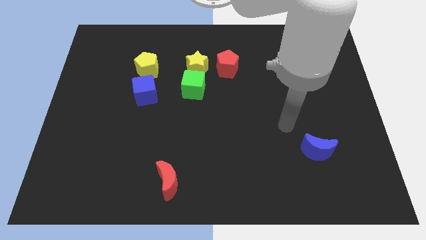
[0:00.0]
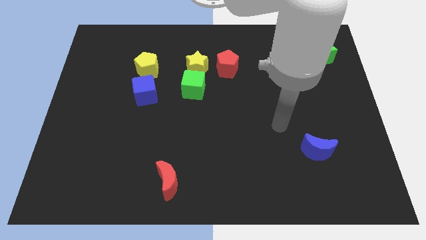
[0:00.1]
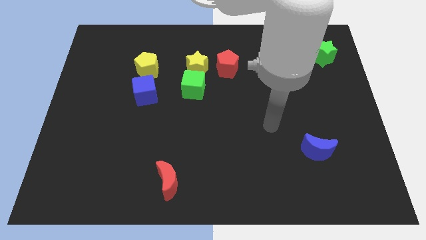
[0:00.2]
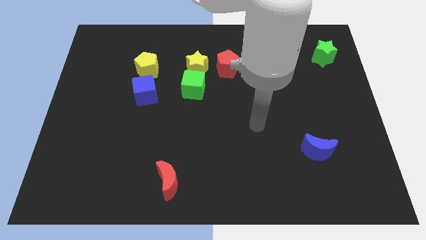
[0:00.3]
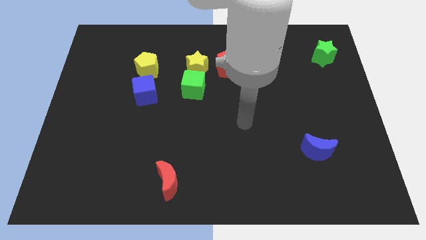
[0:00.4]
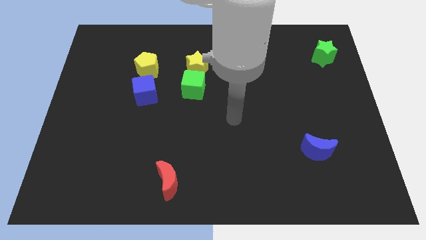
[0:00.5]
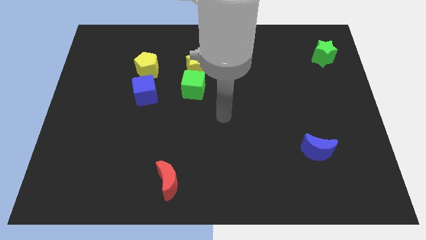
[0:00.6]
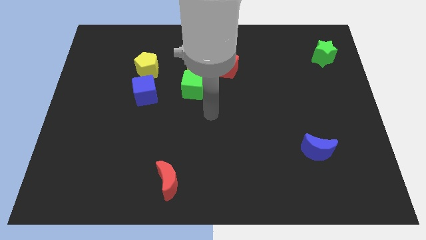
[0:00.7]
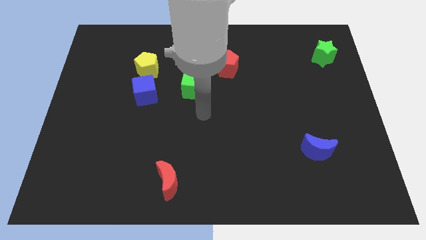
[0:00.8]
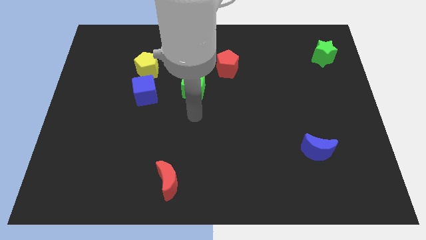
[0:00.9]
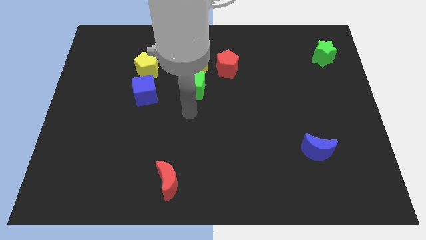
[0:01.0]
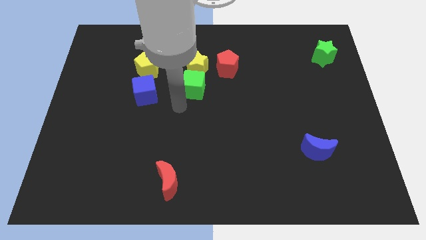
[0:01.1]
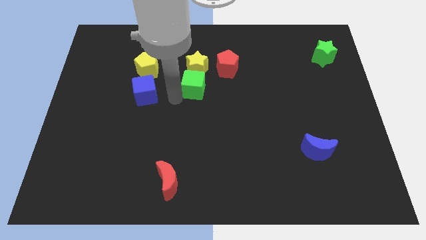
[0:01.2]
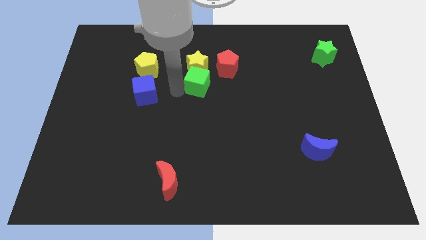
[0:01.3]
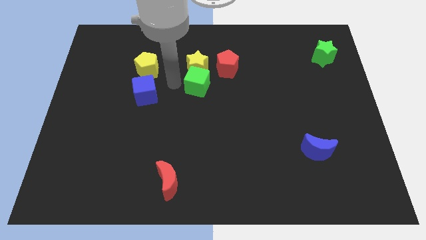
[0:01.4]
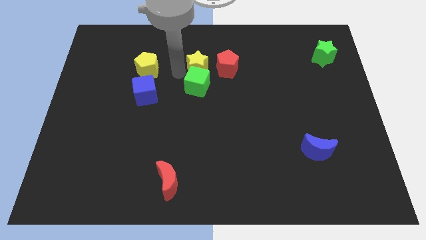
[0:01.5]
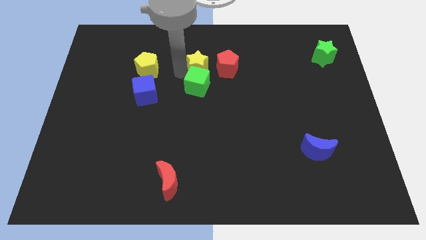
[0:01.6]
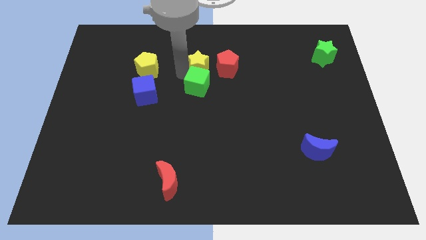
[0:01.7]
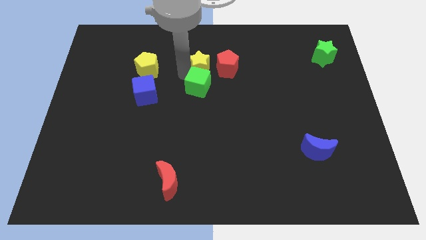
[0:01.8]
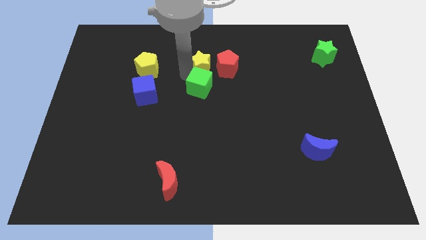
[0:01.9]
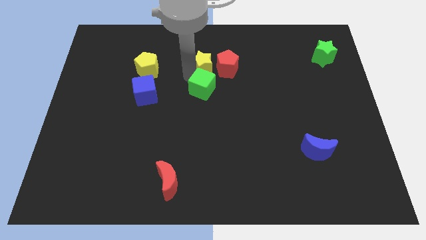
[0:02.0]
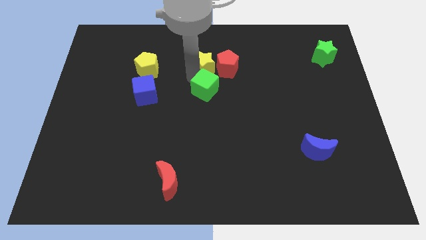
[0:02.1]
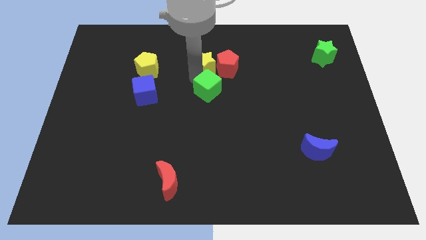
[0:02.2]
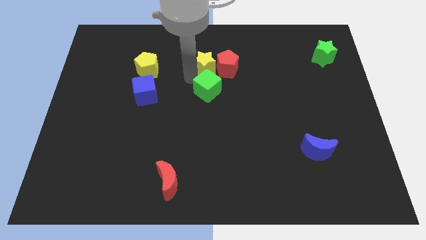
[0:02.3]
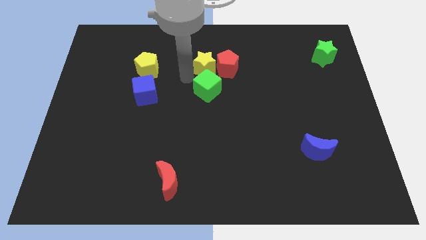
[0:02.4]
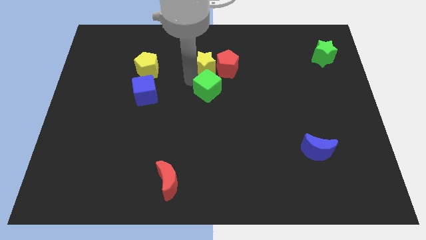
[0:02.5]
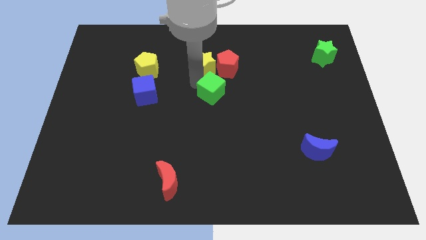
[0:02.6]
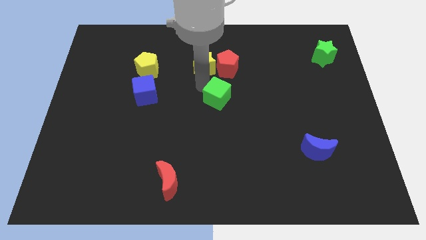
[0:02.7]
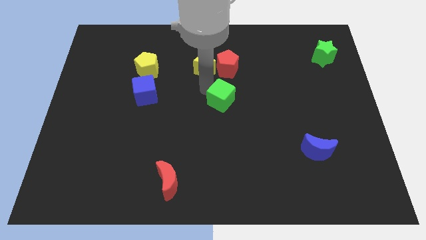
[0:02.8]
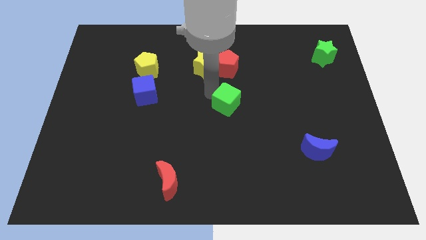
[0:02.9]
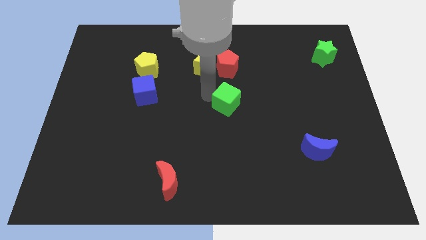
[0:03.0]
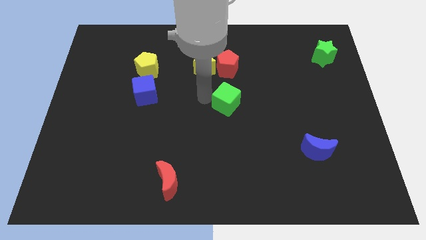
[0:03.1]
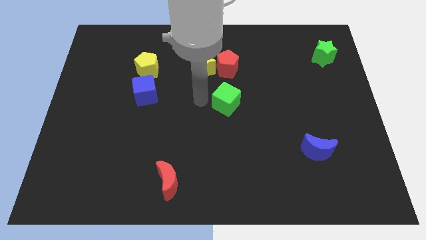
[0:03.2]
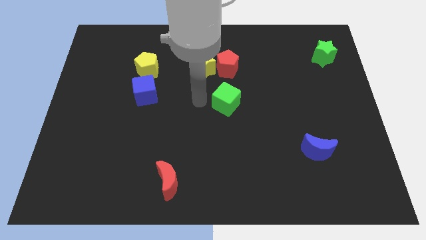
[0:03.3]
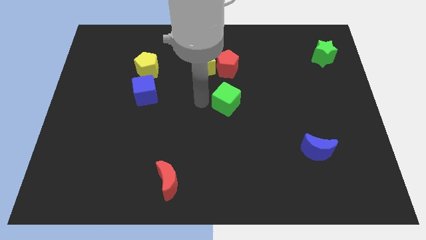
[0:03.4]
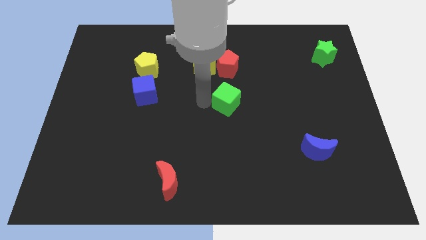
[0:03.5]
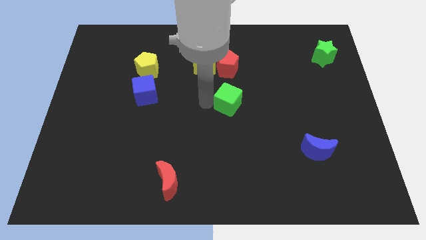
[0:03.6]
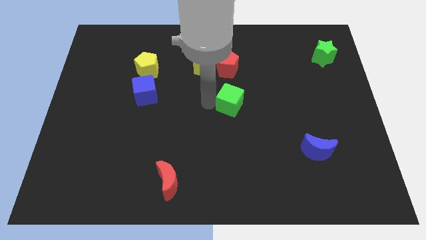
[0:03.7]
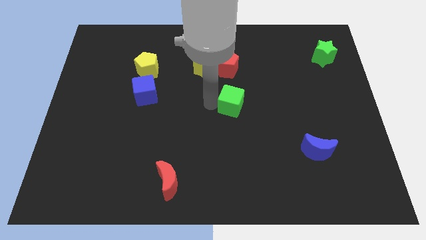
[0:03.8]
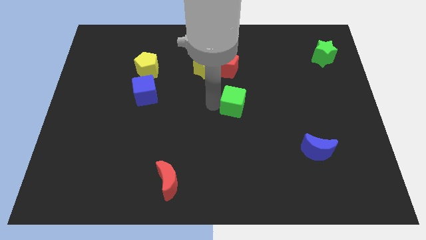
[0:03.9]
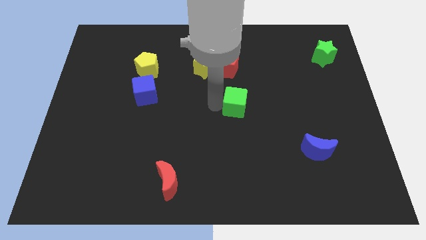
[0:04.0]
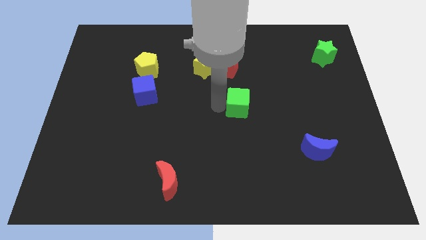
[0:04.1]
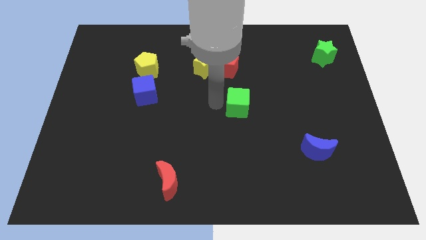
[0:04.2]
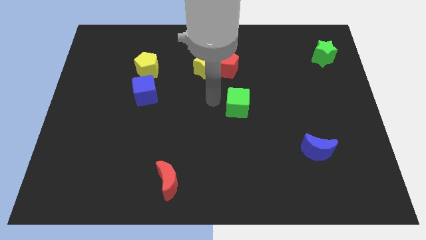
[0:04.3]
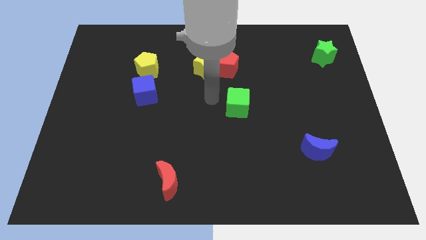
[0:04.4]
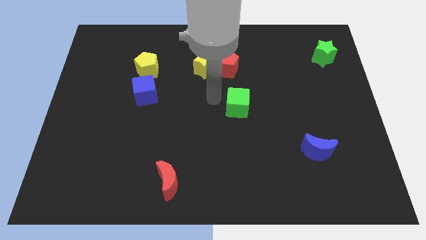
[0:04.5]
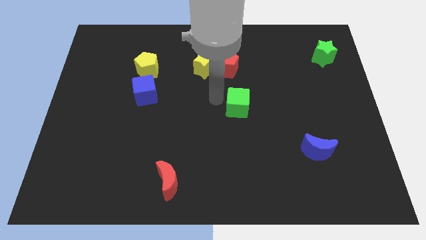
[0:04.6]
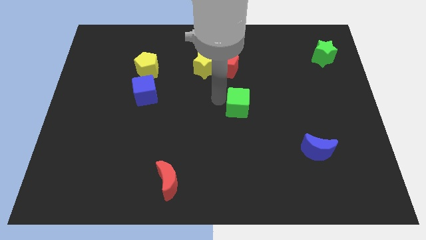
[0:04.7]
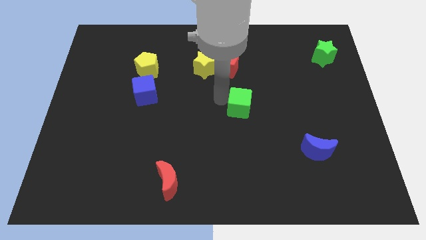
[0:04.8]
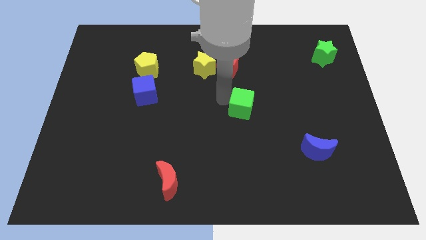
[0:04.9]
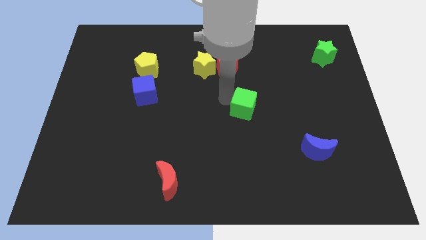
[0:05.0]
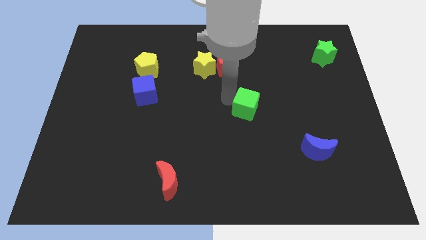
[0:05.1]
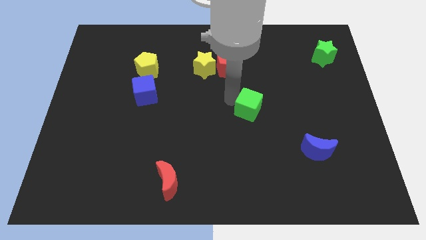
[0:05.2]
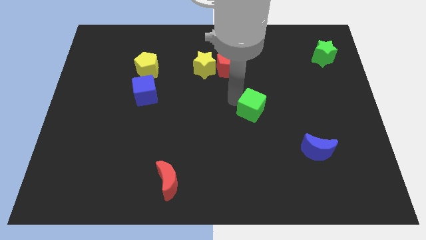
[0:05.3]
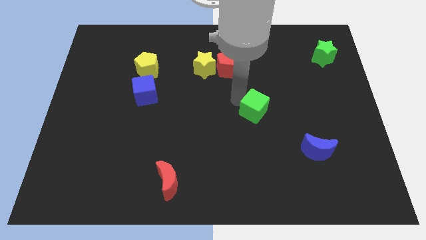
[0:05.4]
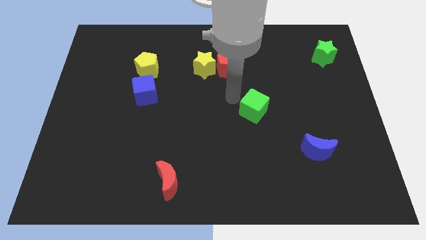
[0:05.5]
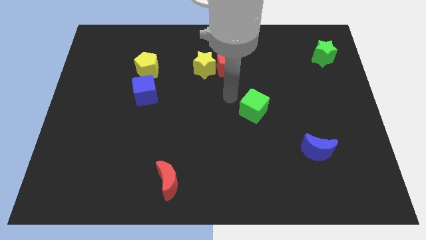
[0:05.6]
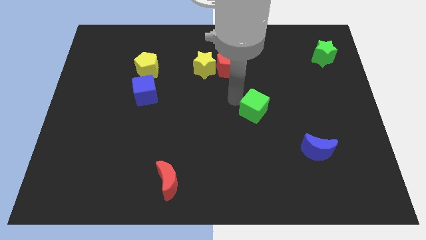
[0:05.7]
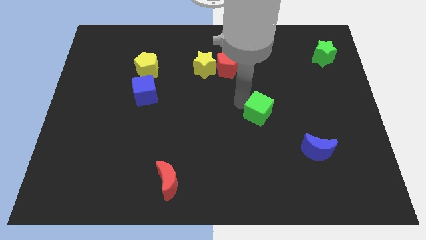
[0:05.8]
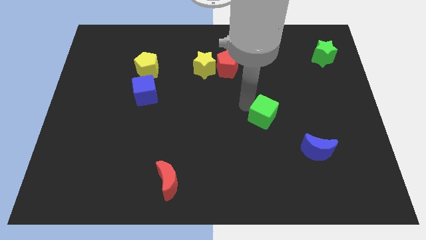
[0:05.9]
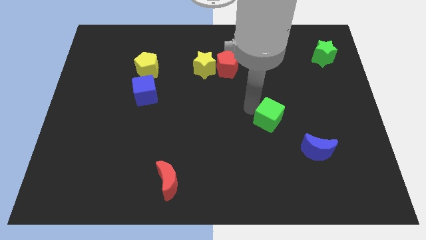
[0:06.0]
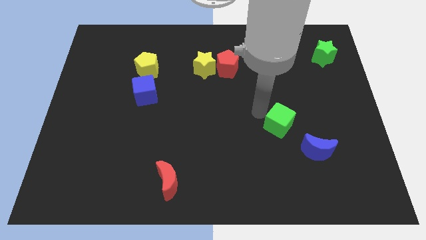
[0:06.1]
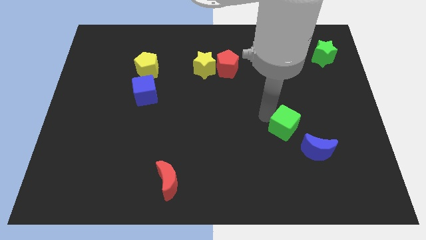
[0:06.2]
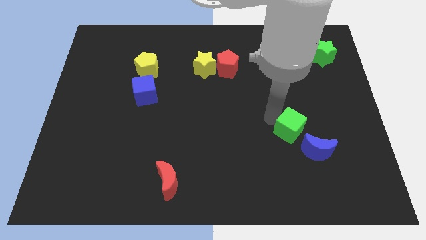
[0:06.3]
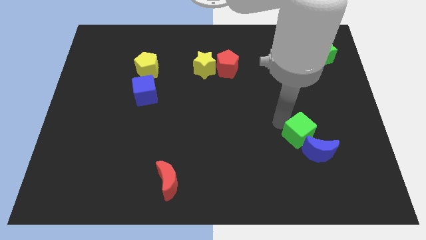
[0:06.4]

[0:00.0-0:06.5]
move the green cube towards the blue moon

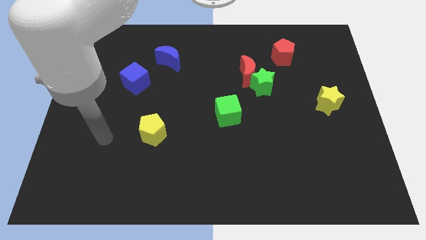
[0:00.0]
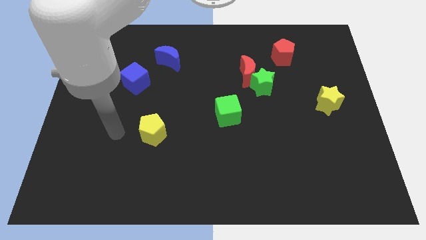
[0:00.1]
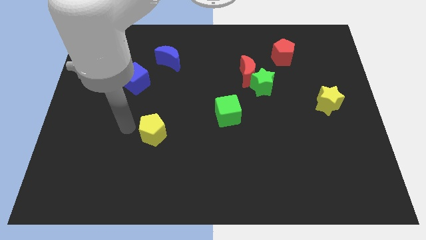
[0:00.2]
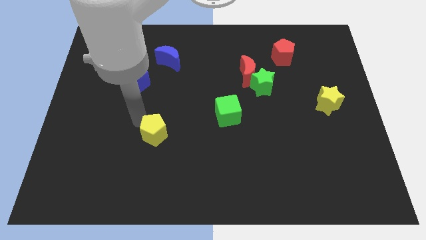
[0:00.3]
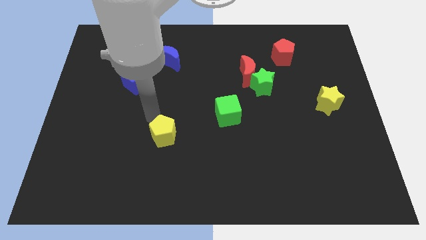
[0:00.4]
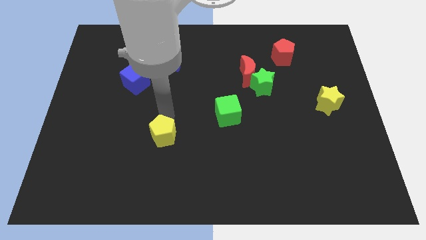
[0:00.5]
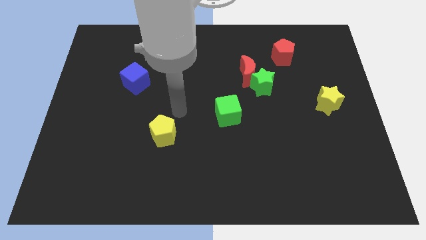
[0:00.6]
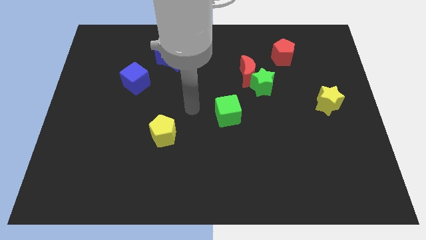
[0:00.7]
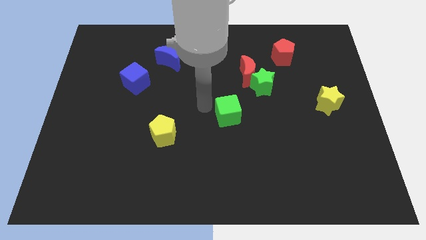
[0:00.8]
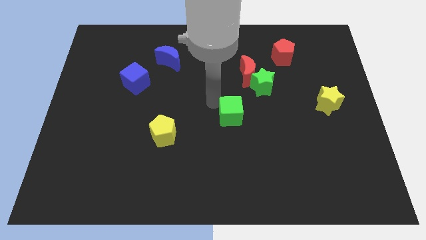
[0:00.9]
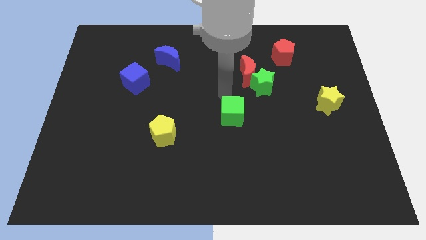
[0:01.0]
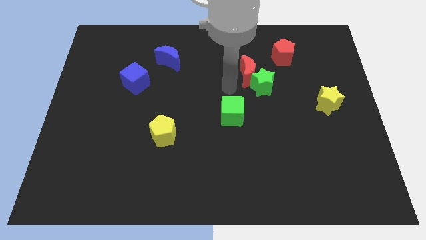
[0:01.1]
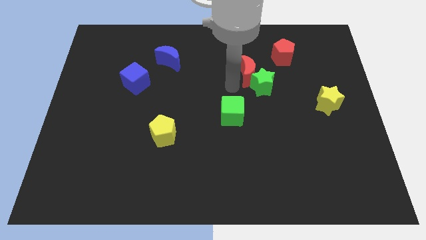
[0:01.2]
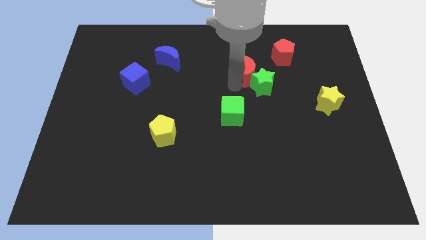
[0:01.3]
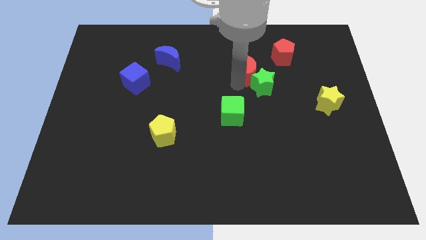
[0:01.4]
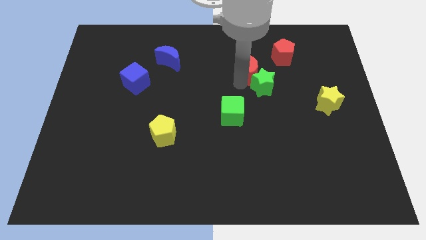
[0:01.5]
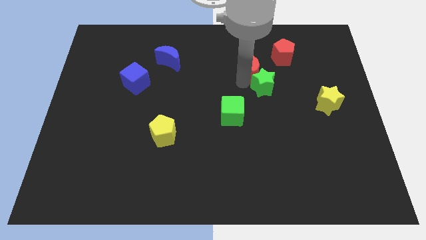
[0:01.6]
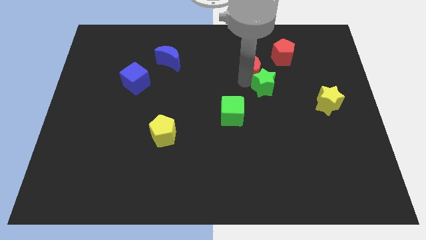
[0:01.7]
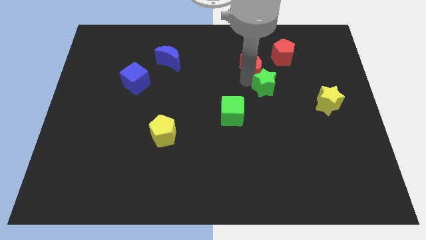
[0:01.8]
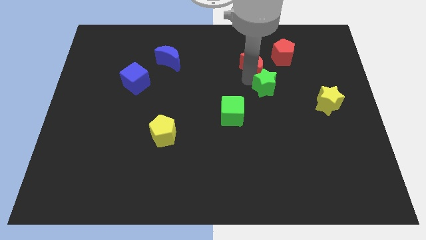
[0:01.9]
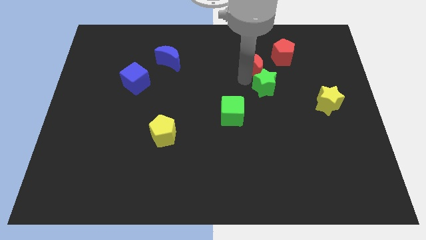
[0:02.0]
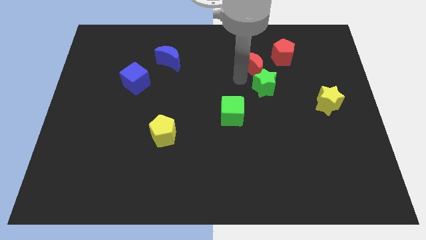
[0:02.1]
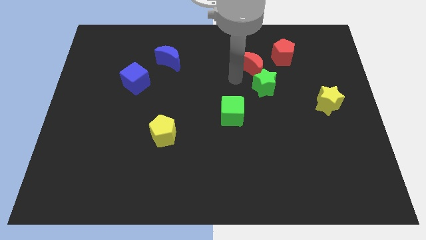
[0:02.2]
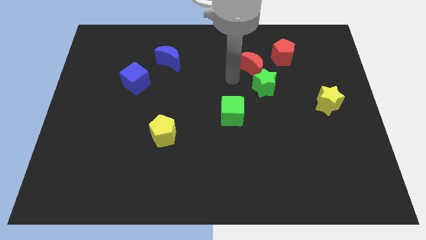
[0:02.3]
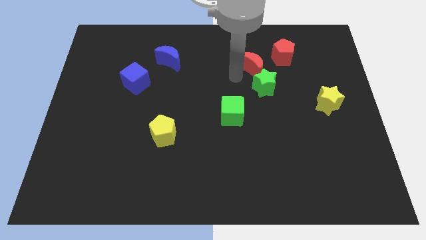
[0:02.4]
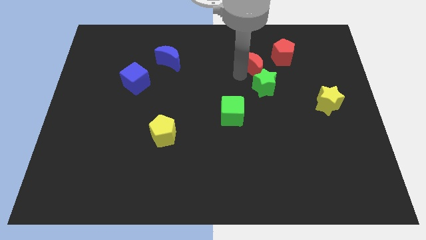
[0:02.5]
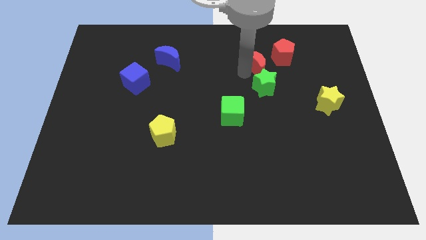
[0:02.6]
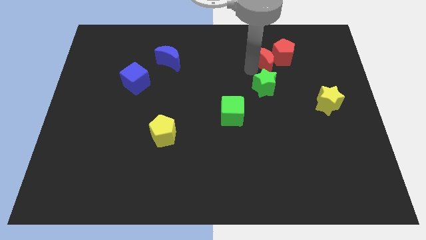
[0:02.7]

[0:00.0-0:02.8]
slide the red moon towards the red pentagon
